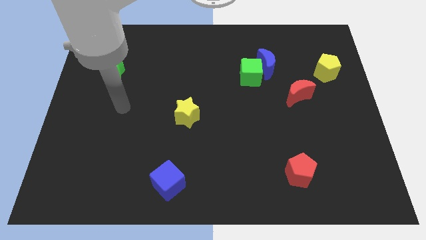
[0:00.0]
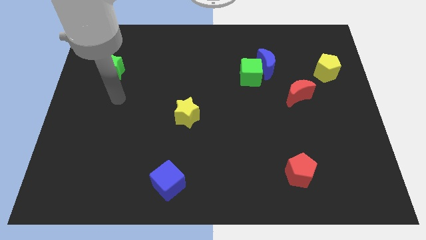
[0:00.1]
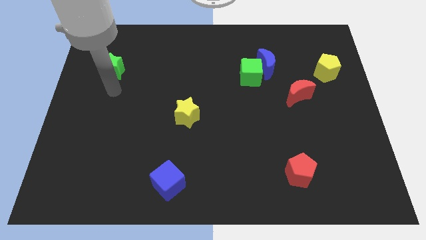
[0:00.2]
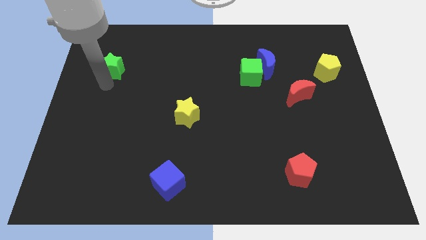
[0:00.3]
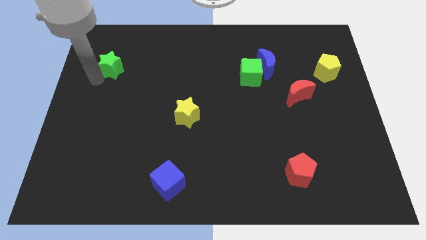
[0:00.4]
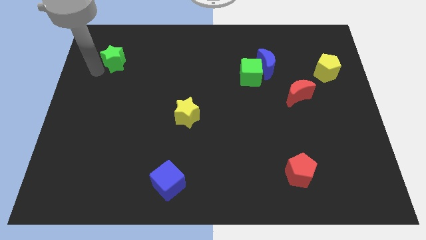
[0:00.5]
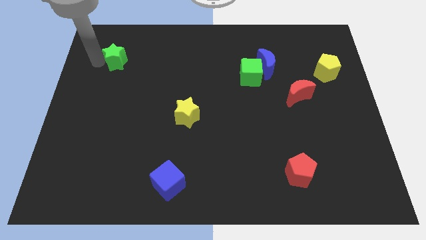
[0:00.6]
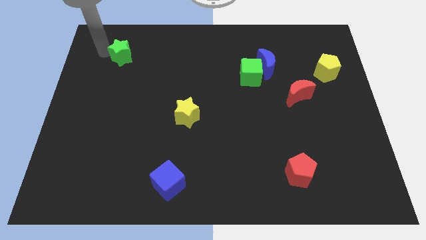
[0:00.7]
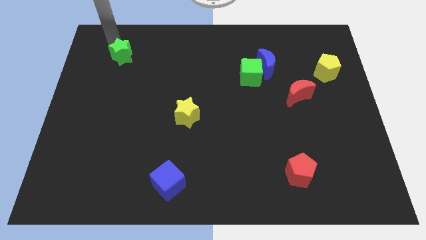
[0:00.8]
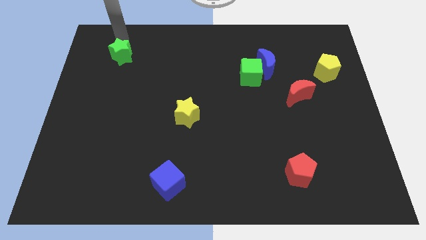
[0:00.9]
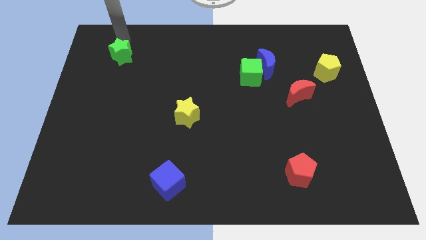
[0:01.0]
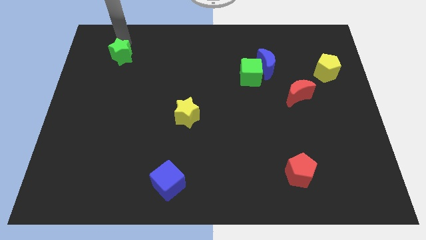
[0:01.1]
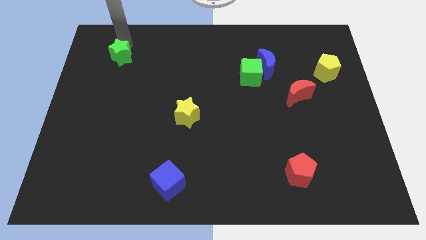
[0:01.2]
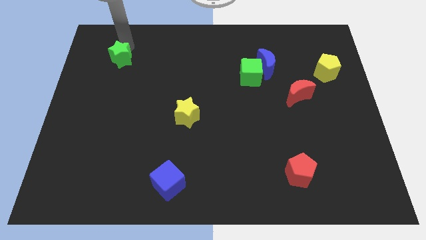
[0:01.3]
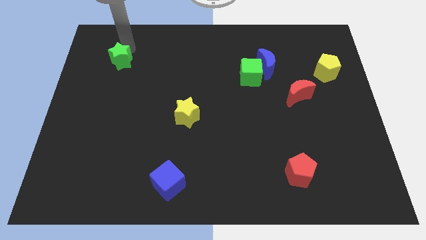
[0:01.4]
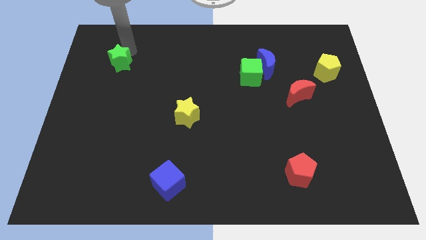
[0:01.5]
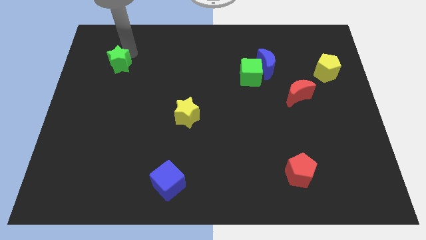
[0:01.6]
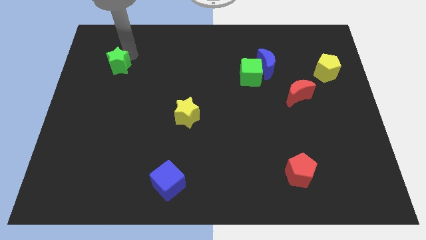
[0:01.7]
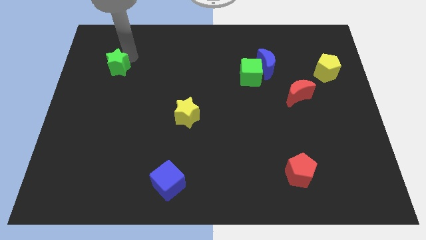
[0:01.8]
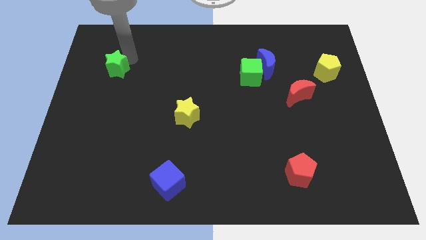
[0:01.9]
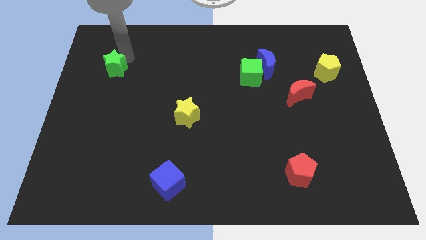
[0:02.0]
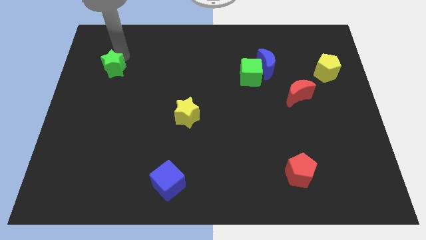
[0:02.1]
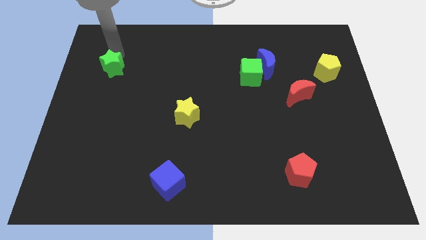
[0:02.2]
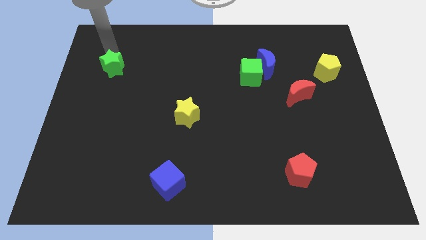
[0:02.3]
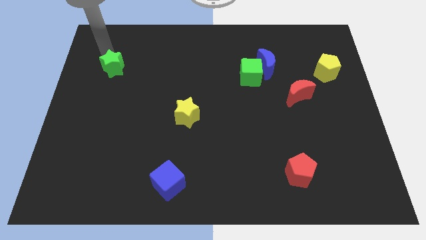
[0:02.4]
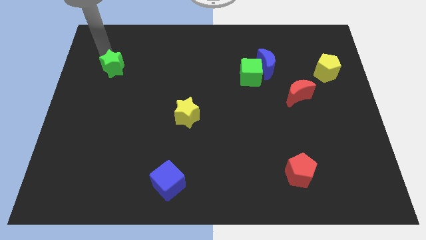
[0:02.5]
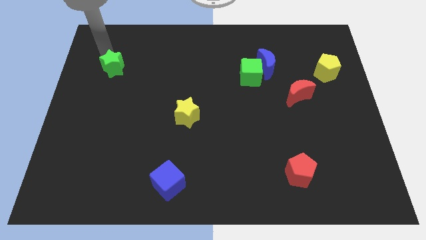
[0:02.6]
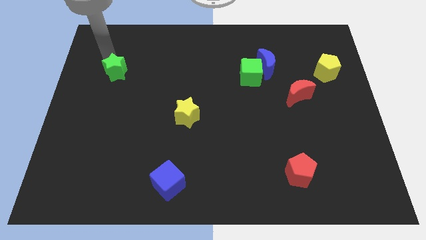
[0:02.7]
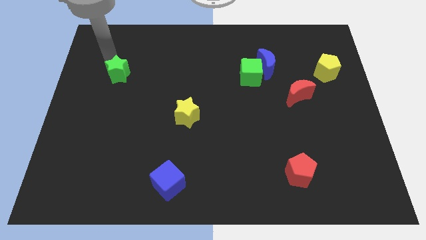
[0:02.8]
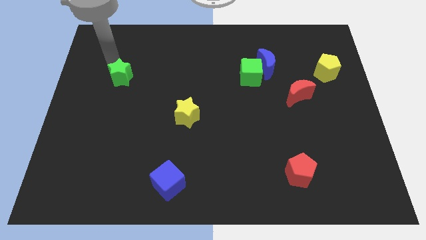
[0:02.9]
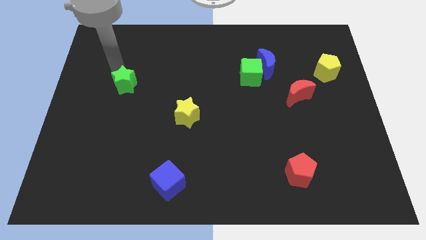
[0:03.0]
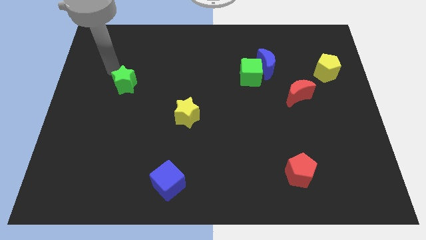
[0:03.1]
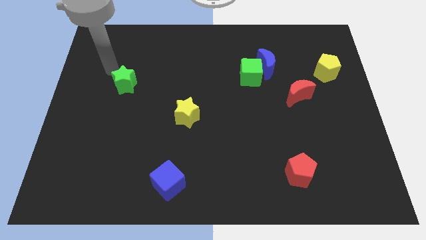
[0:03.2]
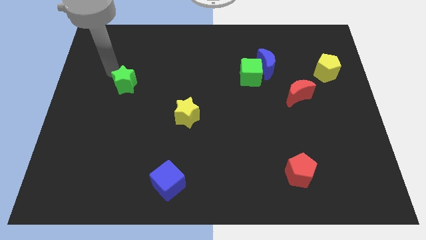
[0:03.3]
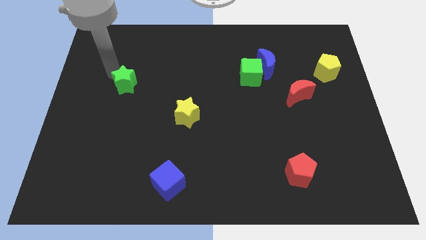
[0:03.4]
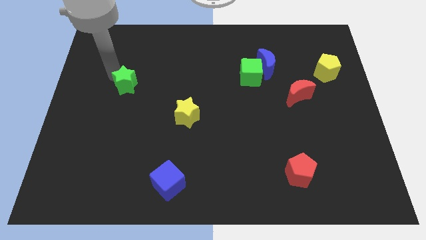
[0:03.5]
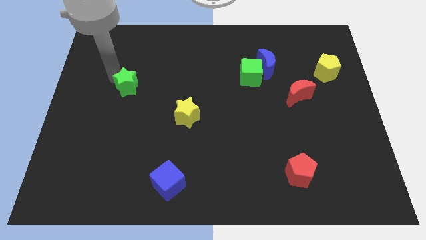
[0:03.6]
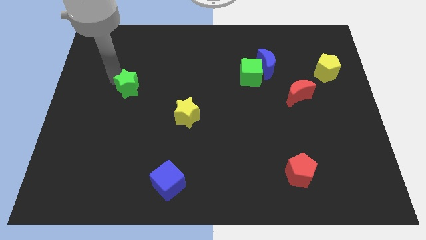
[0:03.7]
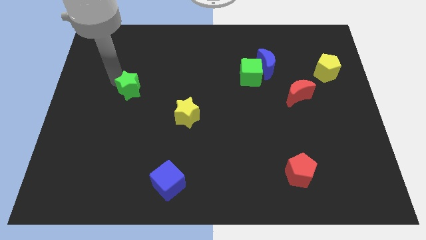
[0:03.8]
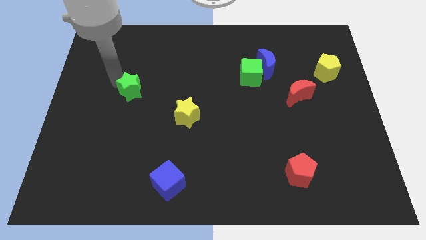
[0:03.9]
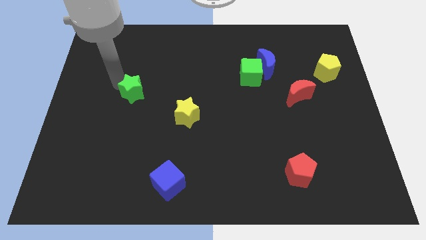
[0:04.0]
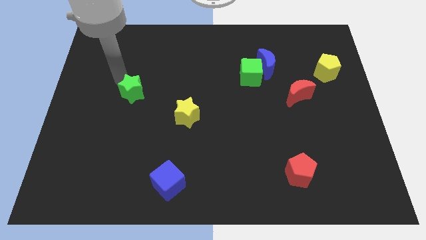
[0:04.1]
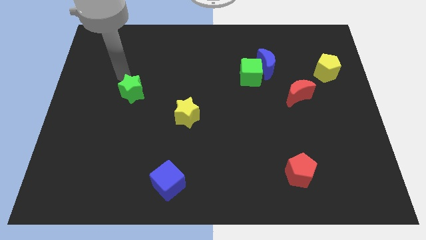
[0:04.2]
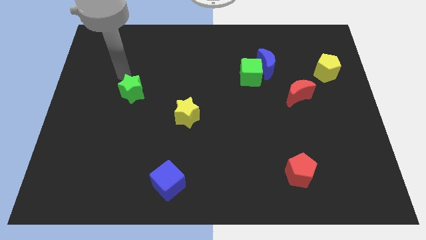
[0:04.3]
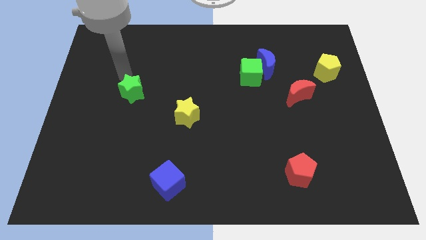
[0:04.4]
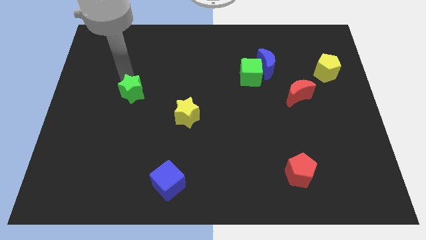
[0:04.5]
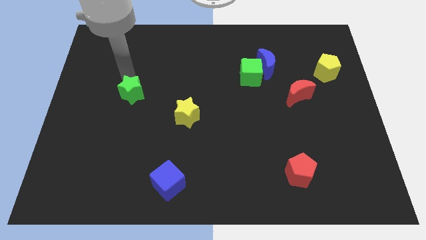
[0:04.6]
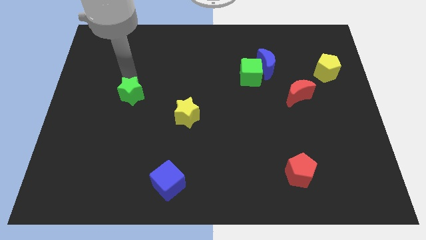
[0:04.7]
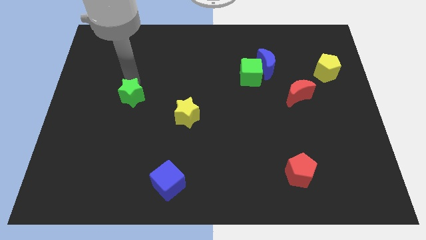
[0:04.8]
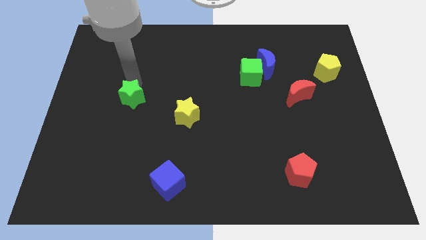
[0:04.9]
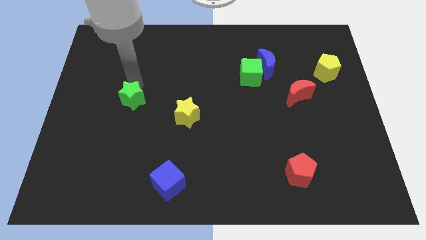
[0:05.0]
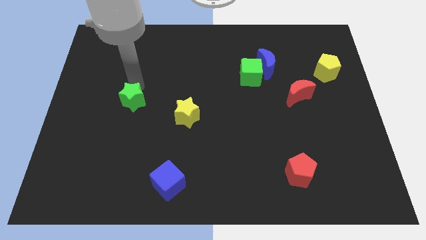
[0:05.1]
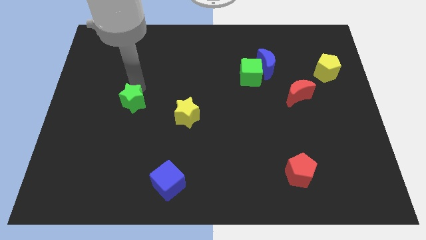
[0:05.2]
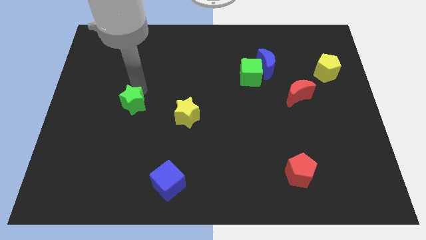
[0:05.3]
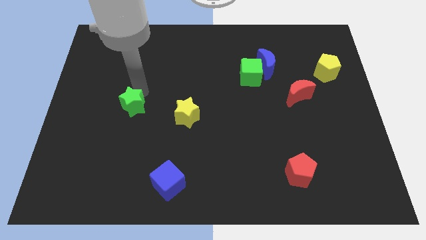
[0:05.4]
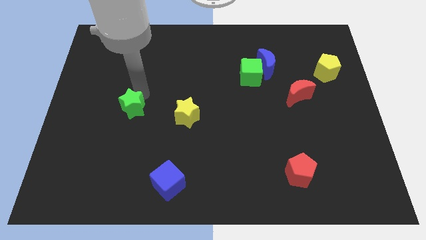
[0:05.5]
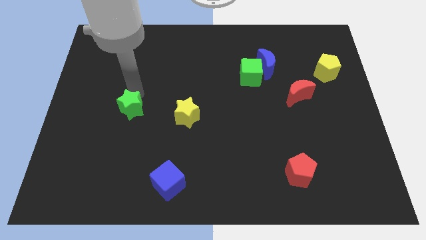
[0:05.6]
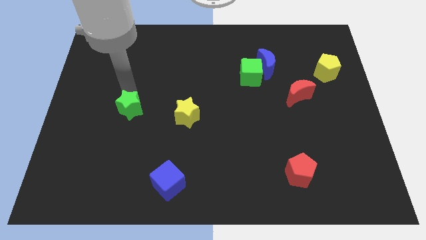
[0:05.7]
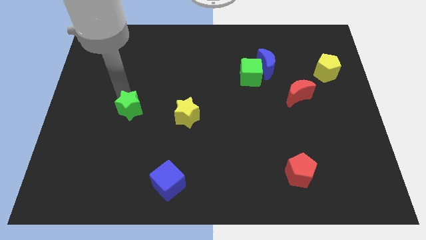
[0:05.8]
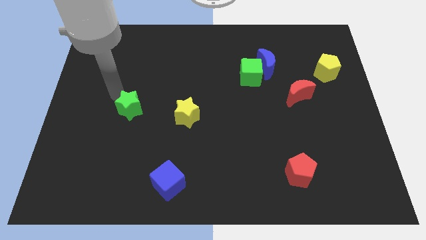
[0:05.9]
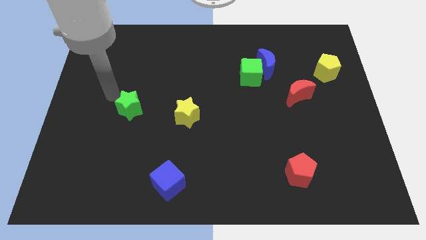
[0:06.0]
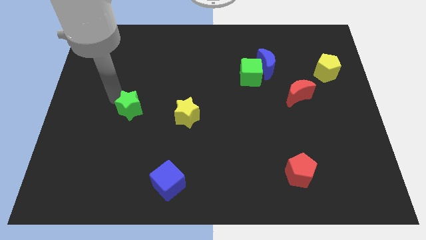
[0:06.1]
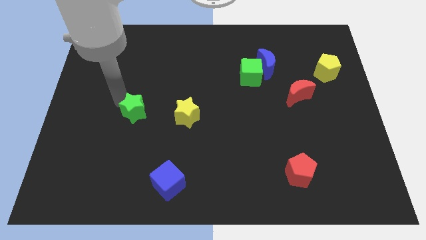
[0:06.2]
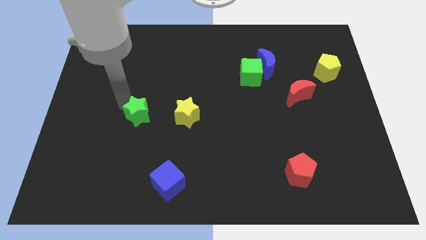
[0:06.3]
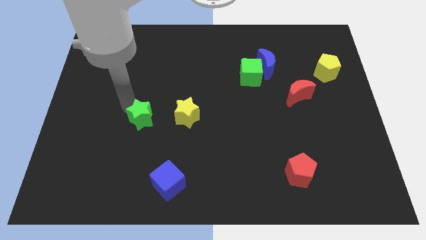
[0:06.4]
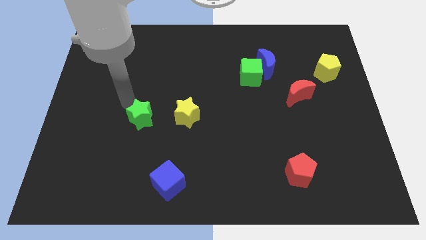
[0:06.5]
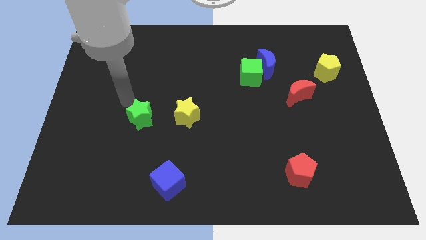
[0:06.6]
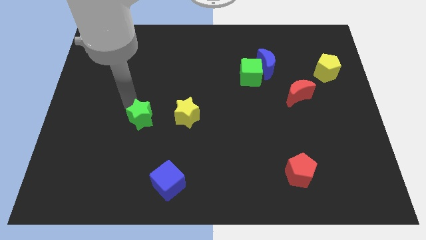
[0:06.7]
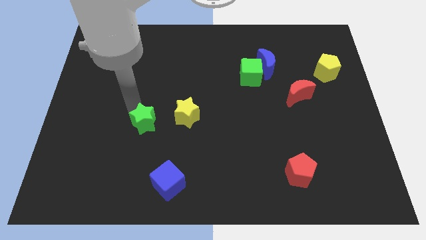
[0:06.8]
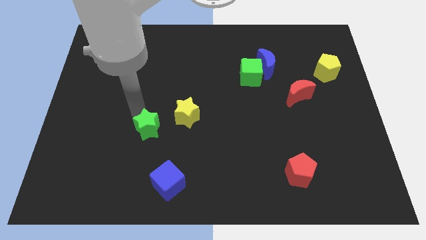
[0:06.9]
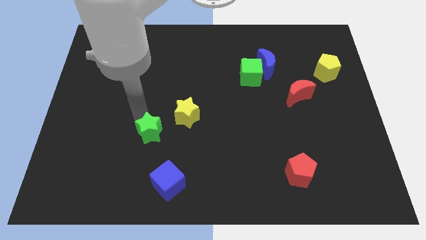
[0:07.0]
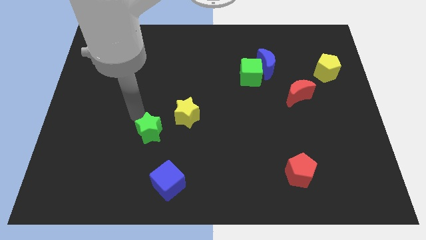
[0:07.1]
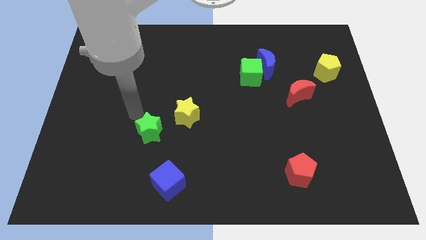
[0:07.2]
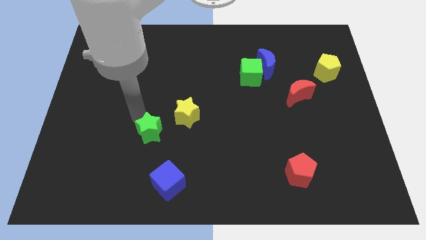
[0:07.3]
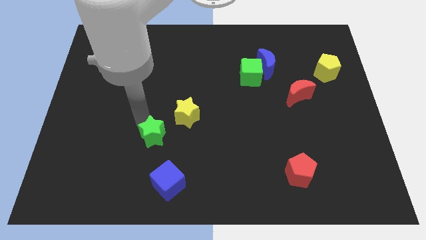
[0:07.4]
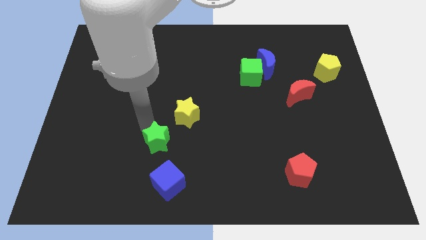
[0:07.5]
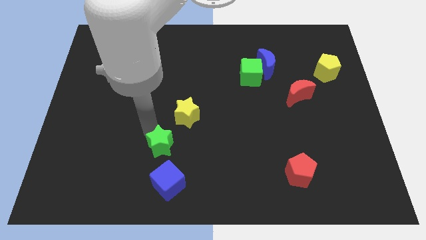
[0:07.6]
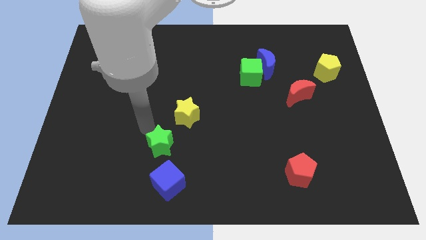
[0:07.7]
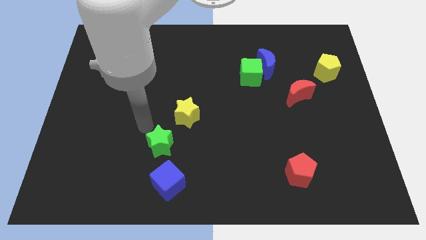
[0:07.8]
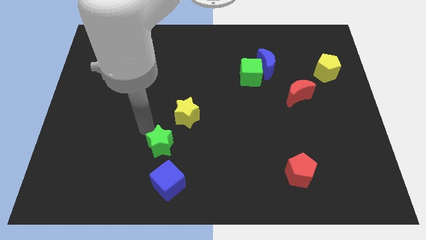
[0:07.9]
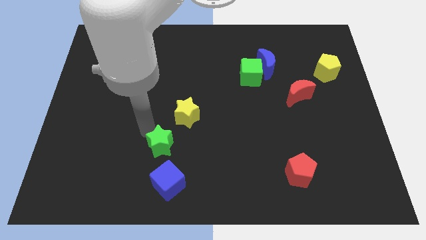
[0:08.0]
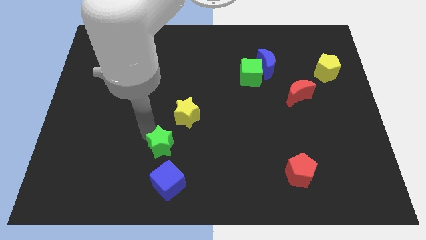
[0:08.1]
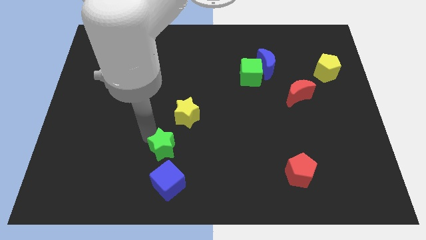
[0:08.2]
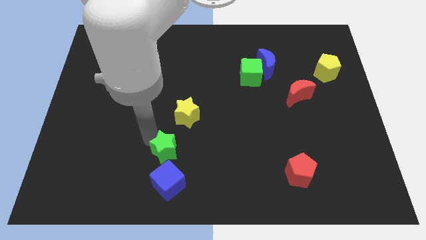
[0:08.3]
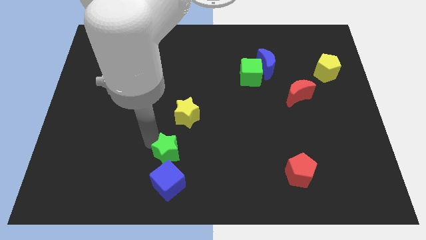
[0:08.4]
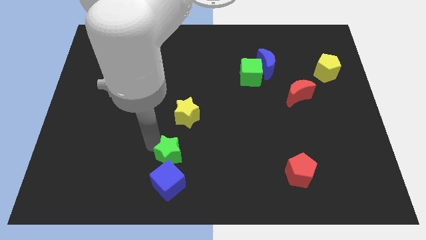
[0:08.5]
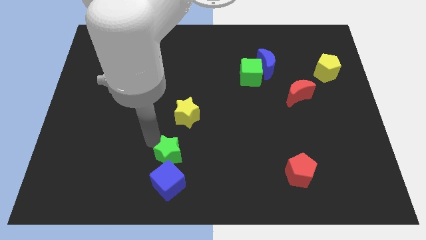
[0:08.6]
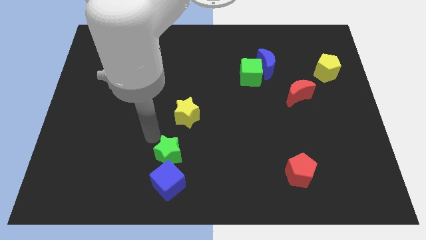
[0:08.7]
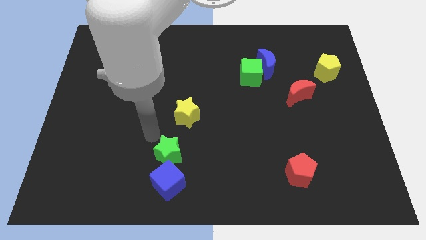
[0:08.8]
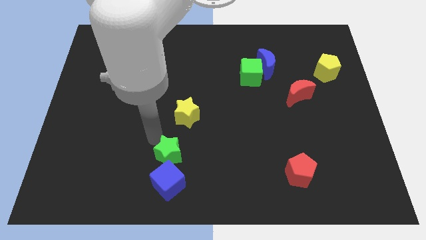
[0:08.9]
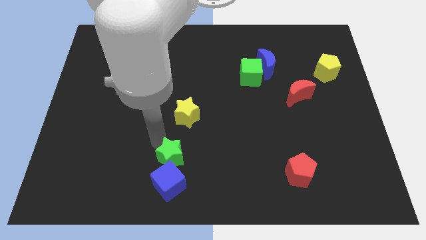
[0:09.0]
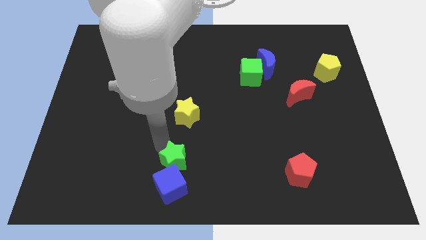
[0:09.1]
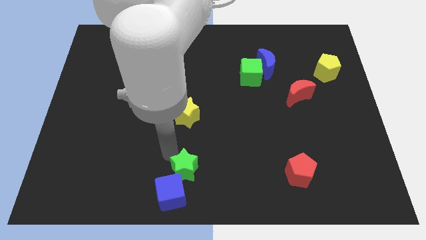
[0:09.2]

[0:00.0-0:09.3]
slide the green star to the bottom side
